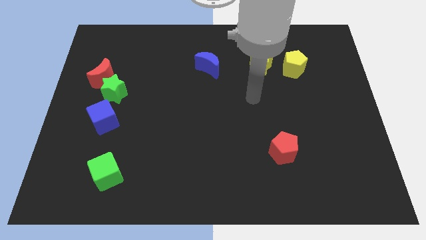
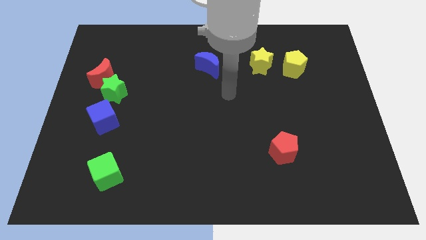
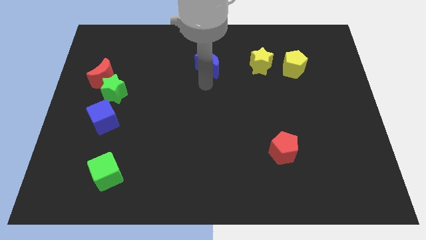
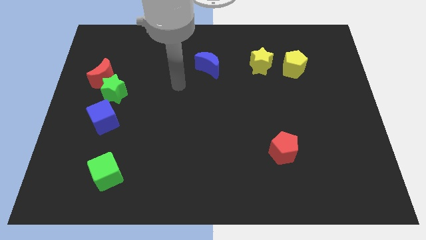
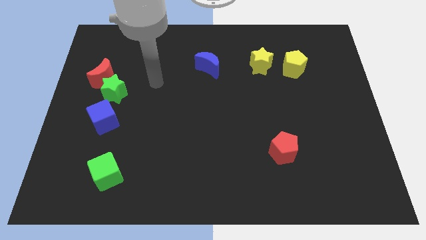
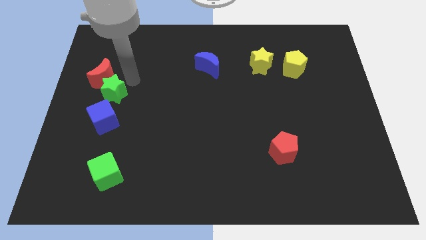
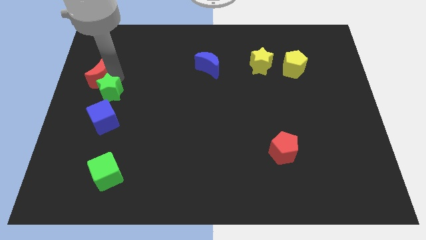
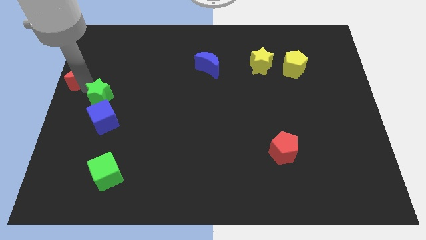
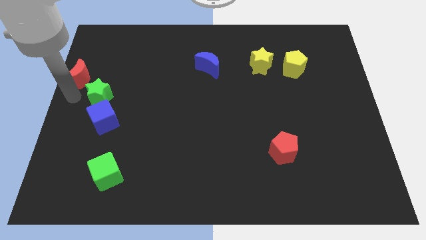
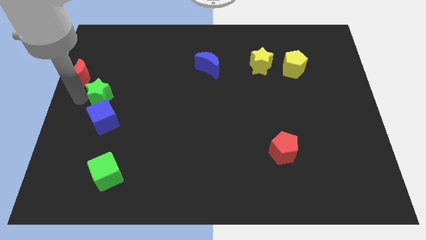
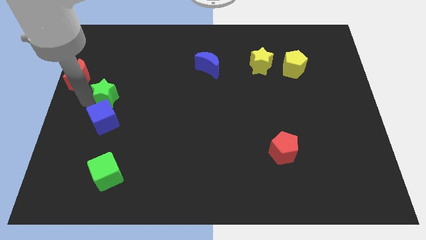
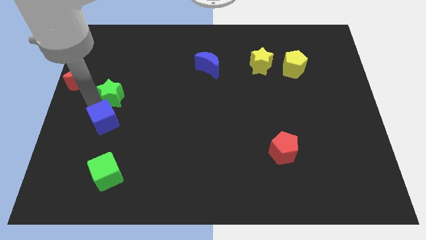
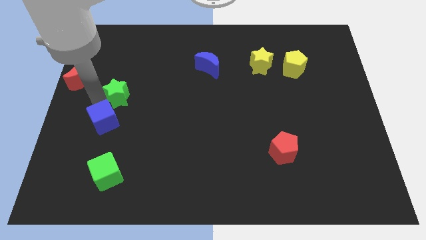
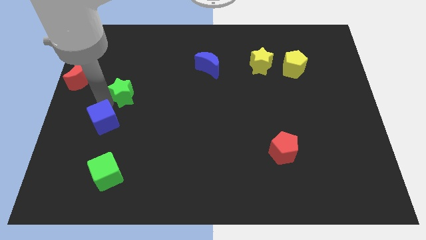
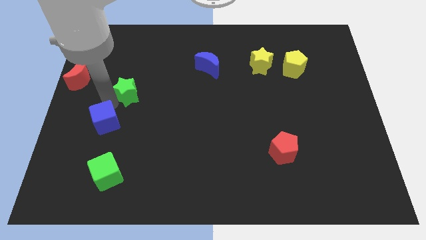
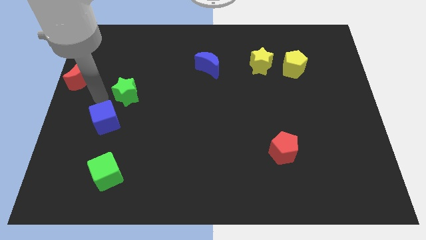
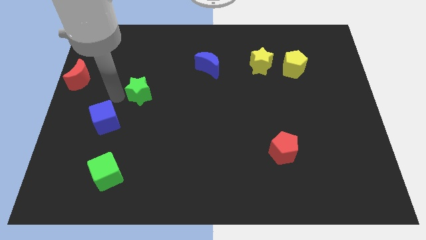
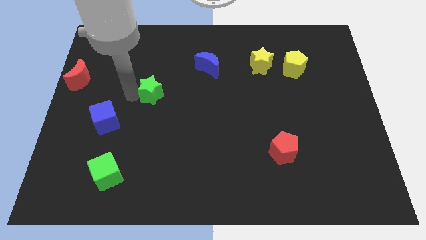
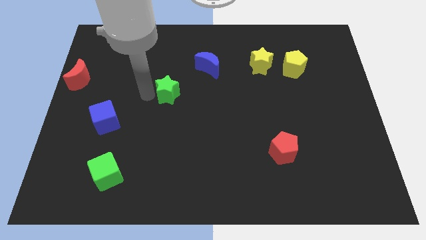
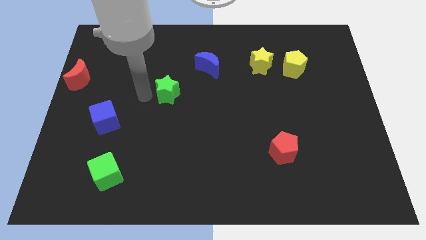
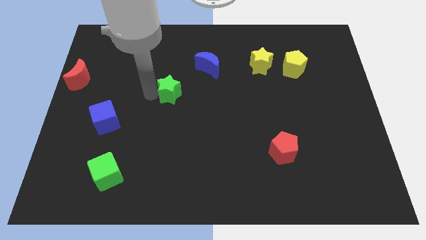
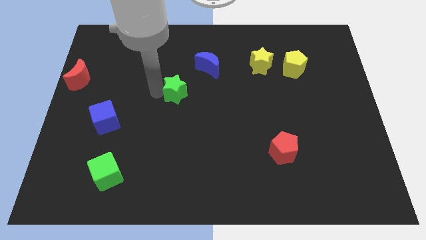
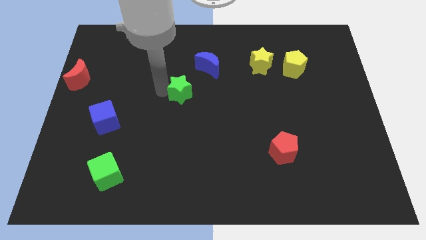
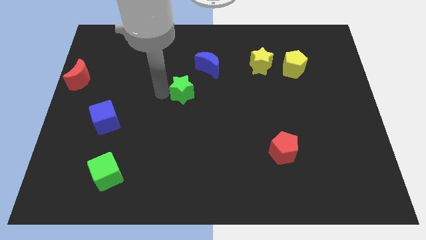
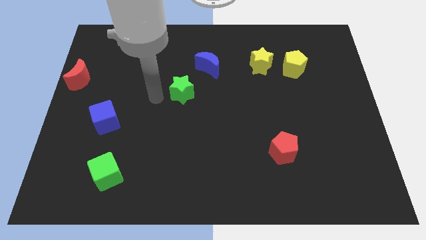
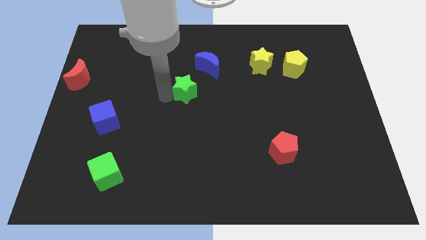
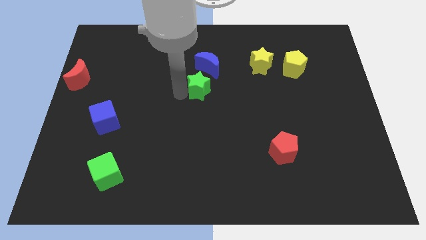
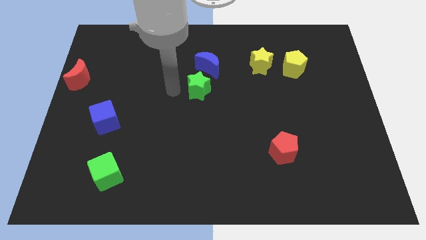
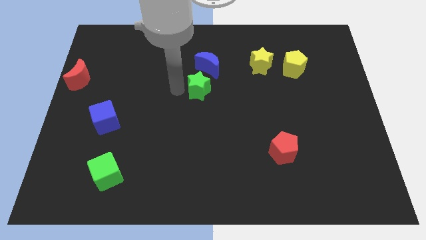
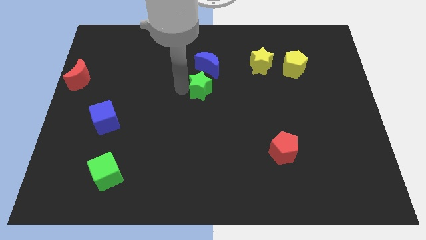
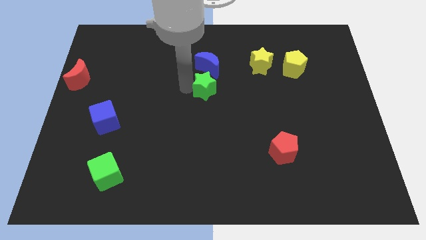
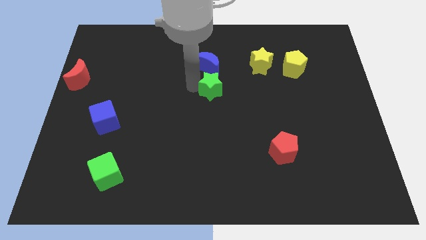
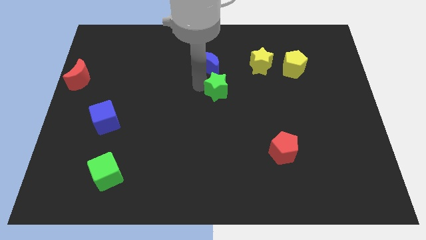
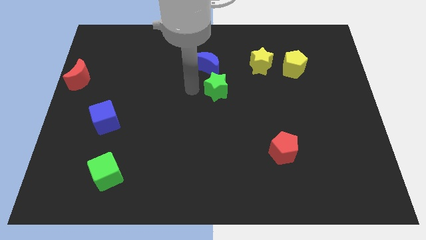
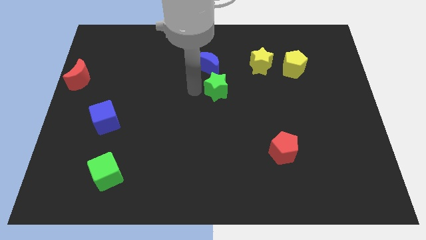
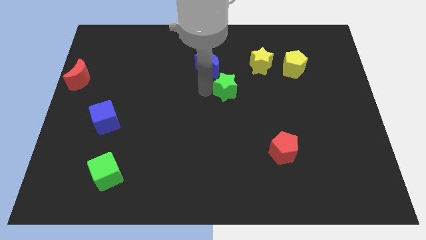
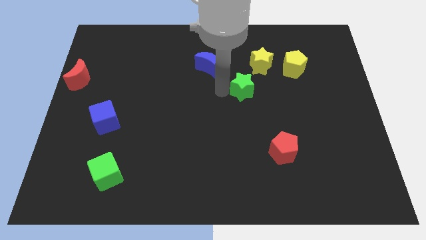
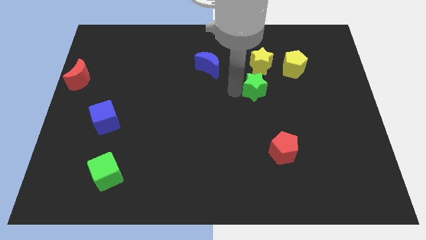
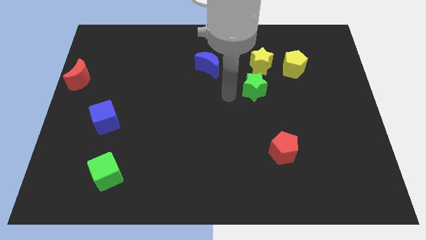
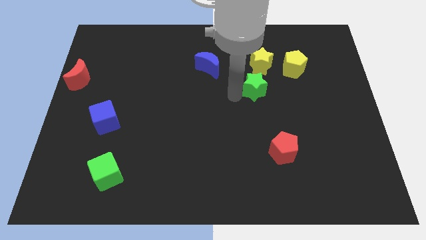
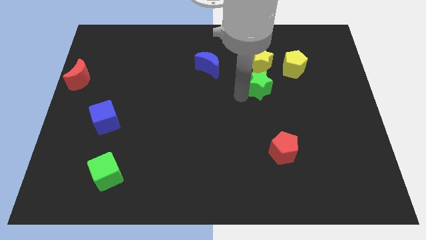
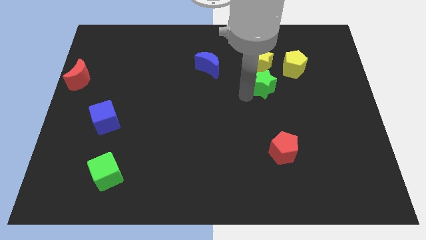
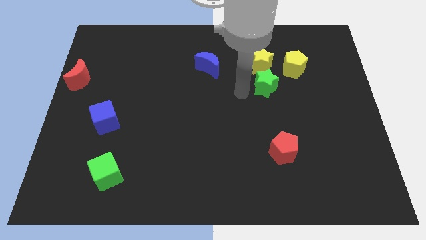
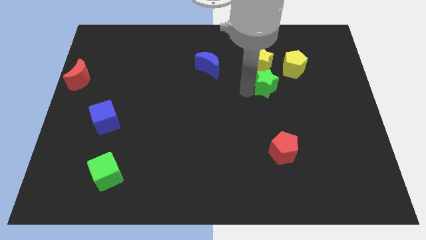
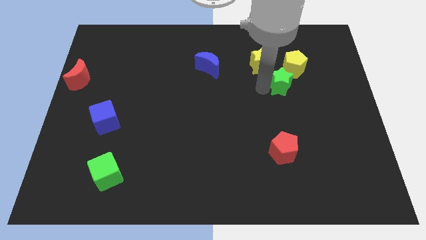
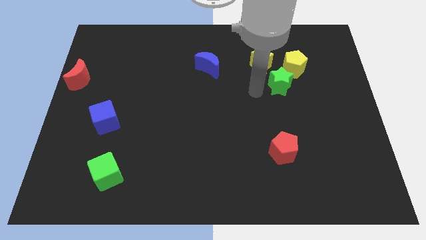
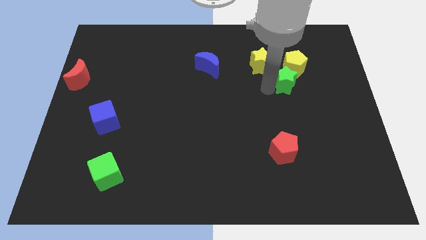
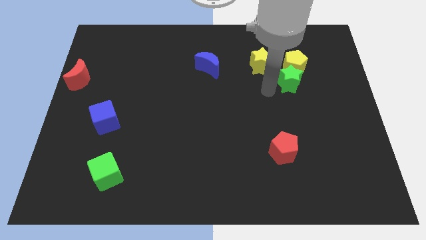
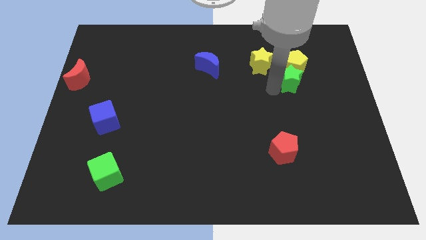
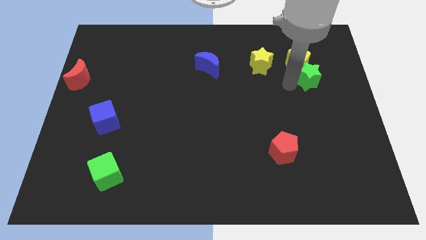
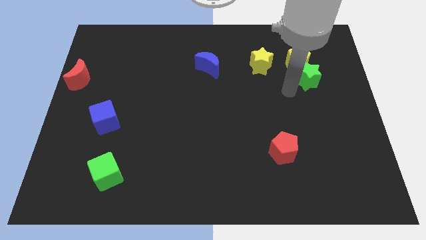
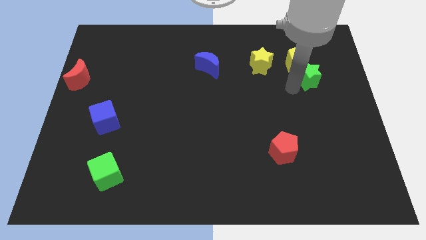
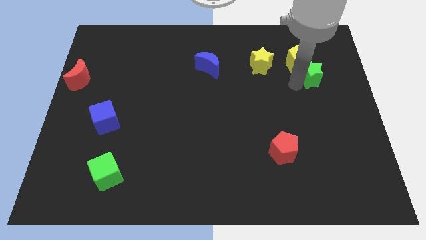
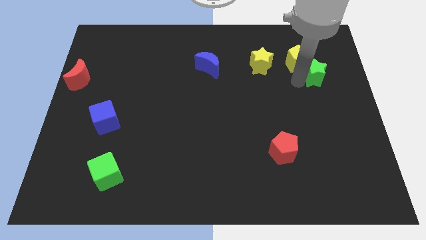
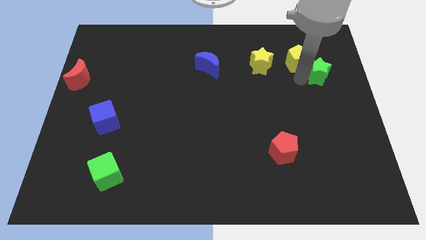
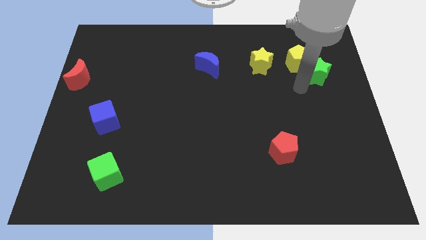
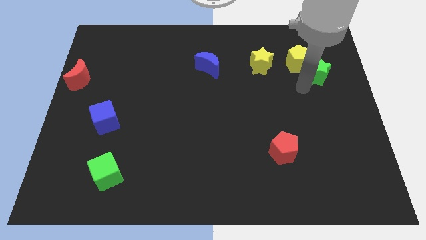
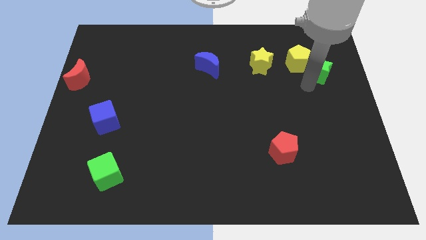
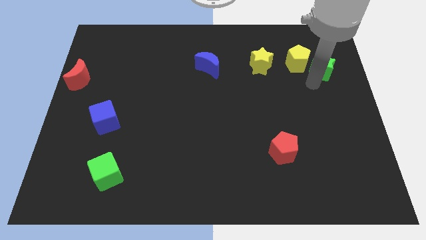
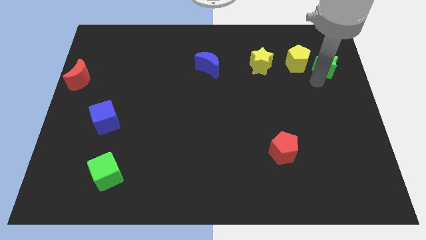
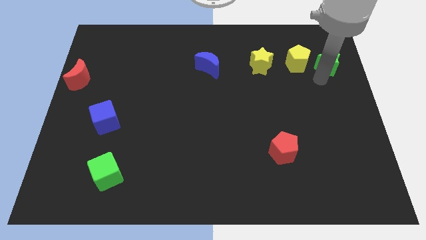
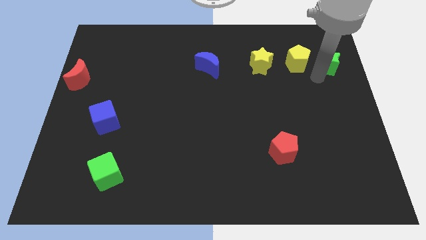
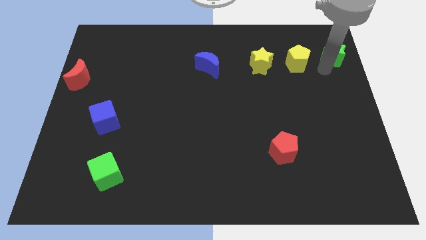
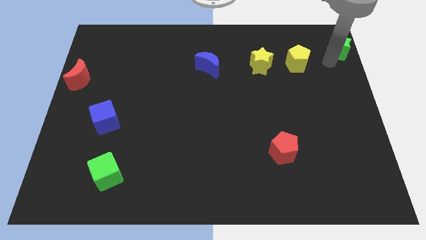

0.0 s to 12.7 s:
move the green star to the top right corner
